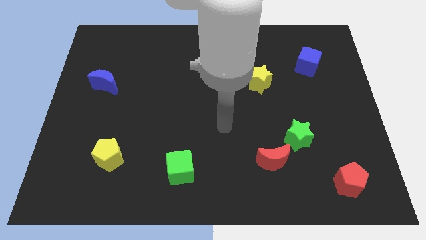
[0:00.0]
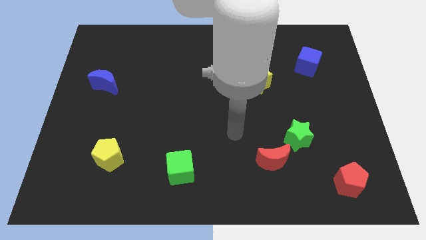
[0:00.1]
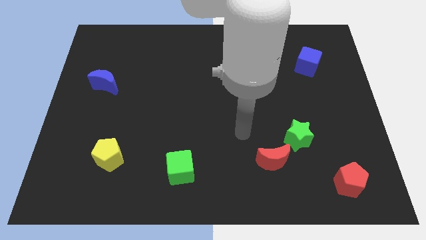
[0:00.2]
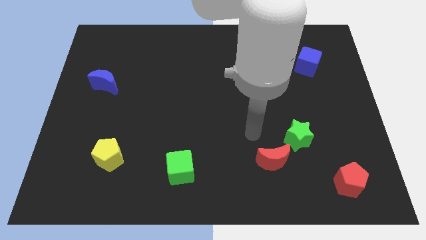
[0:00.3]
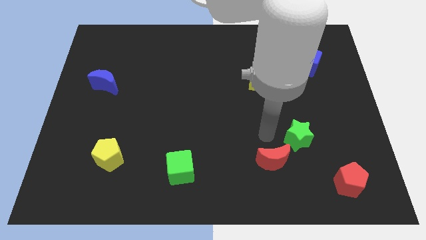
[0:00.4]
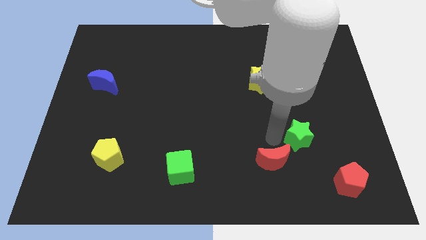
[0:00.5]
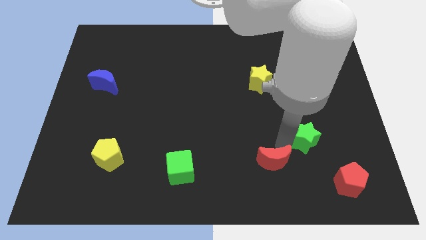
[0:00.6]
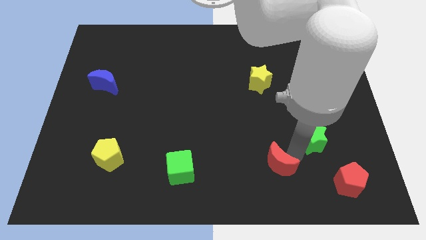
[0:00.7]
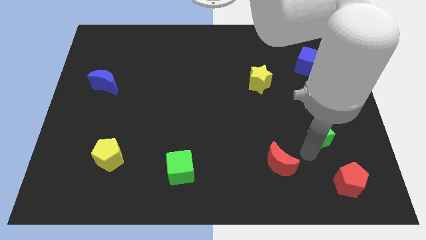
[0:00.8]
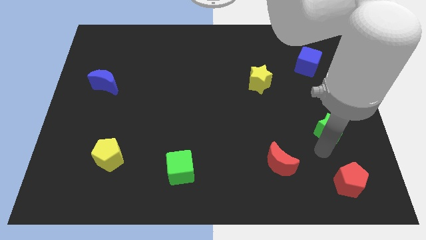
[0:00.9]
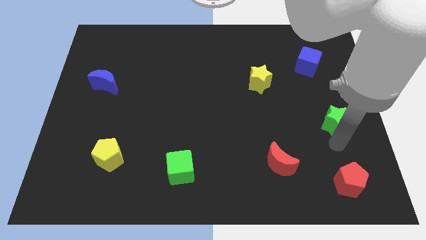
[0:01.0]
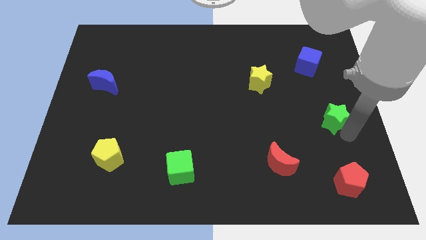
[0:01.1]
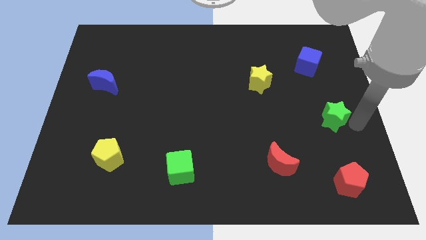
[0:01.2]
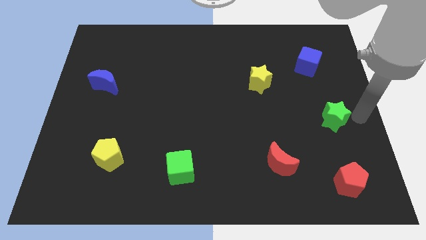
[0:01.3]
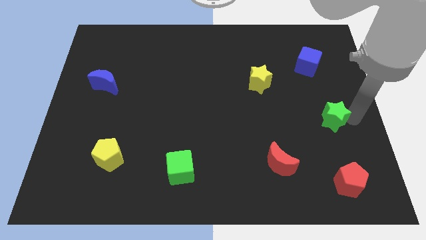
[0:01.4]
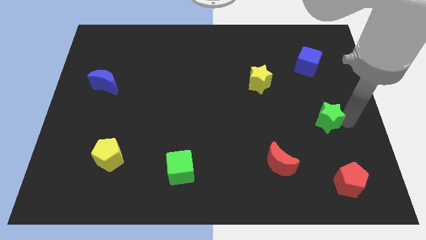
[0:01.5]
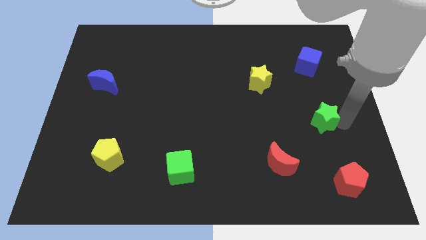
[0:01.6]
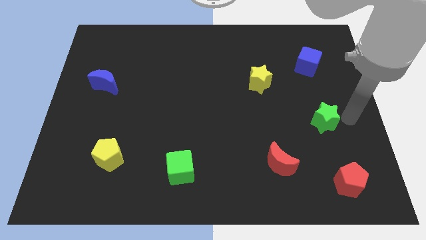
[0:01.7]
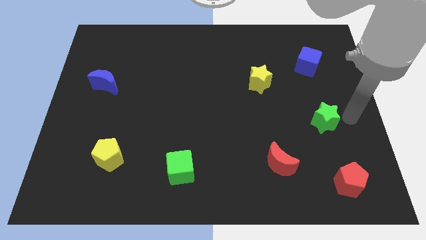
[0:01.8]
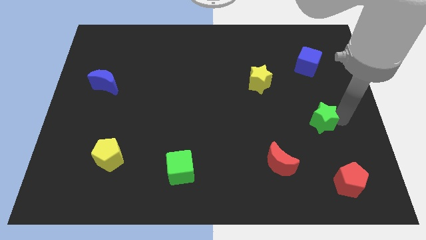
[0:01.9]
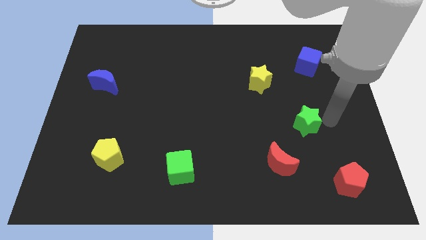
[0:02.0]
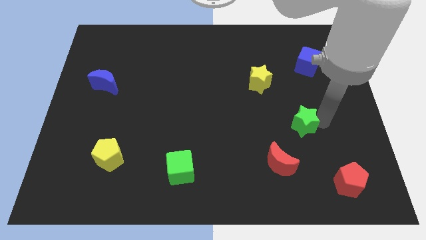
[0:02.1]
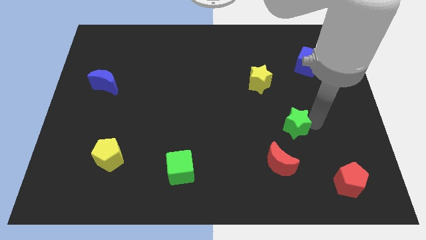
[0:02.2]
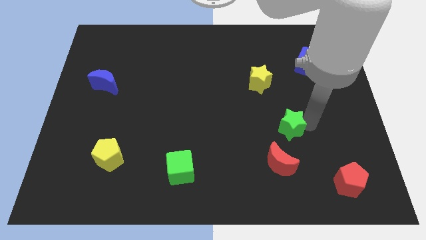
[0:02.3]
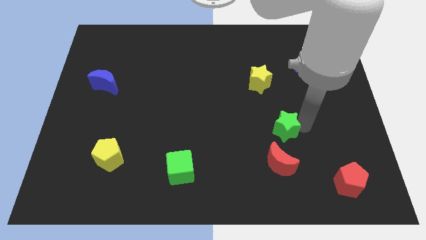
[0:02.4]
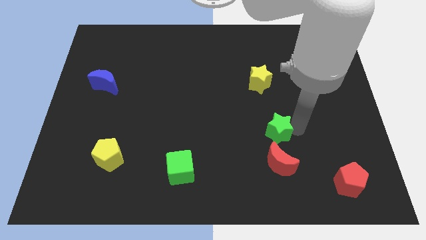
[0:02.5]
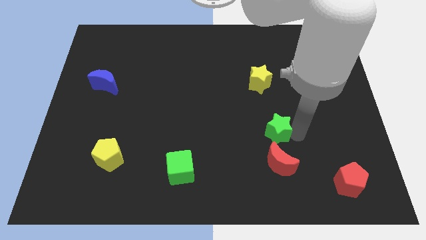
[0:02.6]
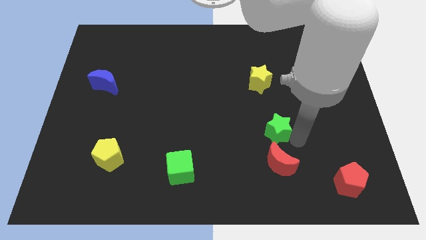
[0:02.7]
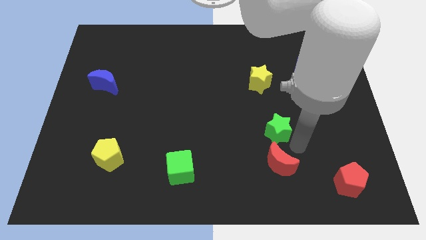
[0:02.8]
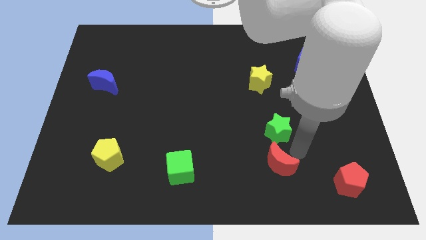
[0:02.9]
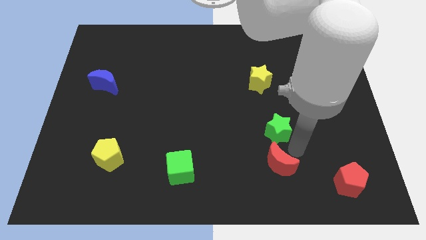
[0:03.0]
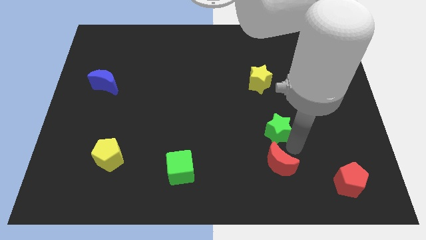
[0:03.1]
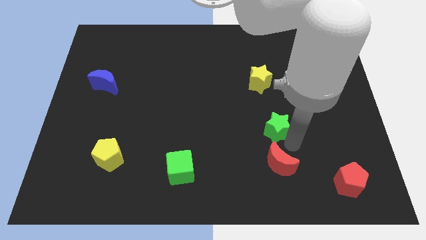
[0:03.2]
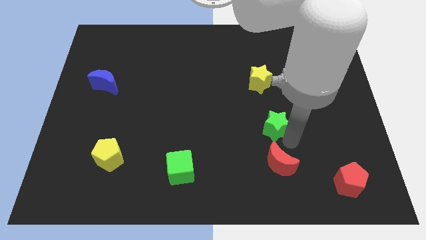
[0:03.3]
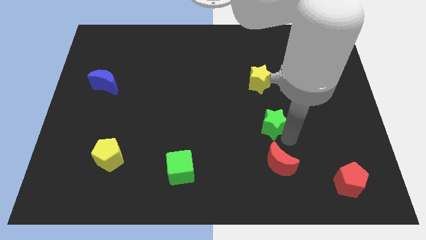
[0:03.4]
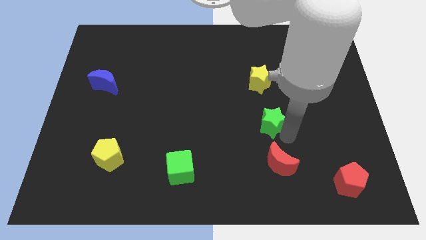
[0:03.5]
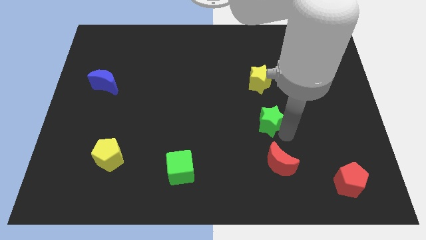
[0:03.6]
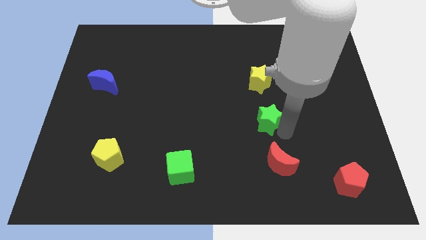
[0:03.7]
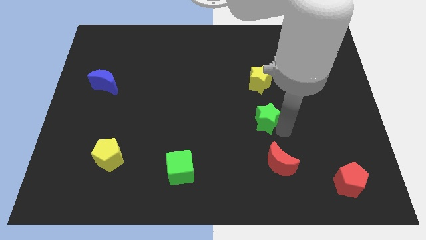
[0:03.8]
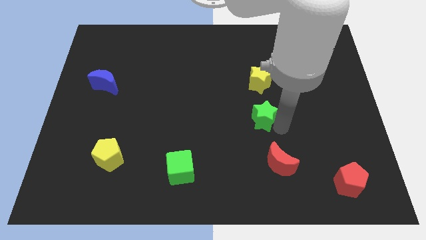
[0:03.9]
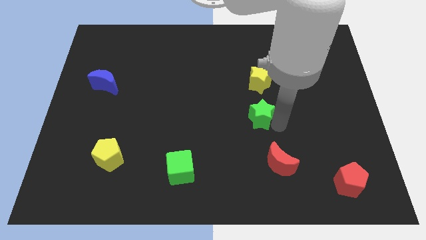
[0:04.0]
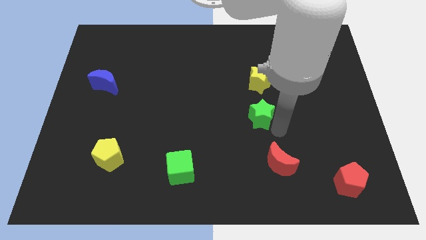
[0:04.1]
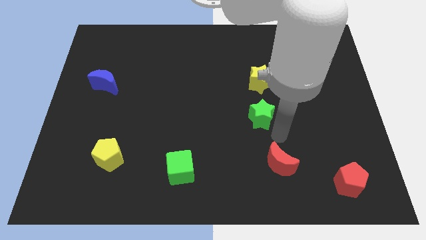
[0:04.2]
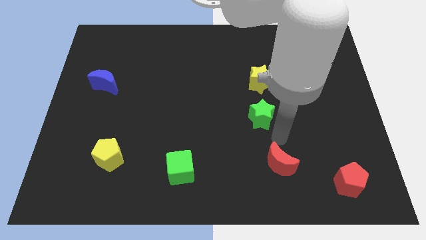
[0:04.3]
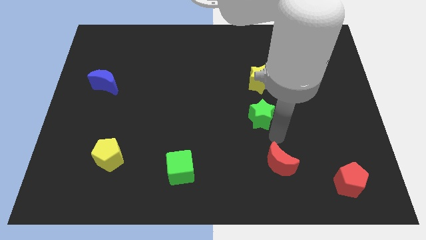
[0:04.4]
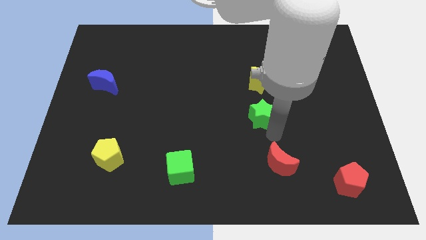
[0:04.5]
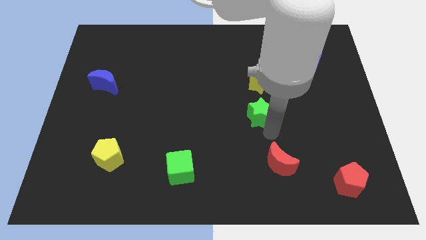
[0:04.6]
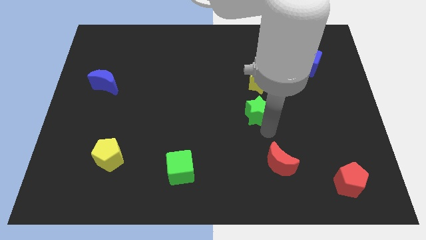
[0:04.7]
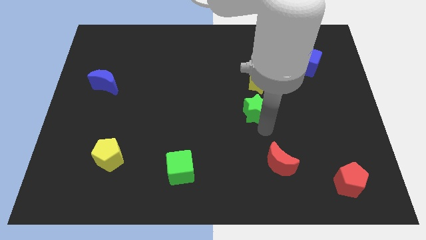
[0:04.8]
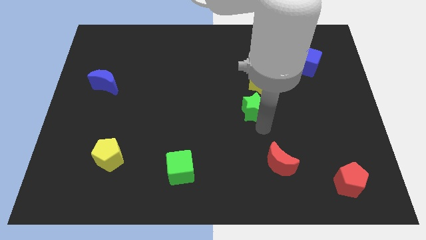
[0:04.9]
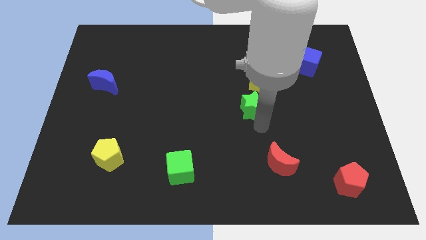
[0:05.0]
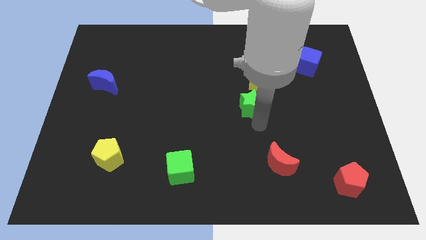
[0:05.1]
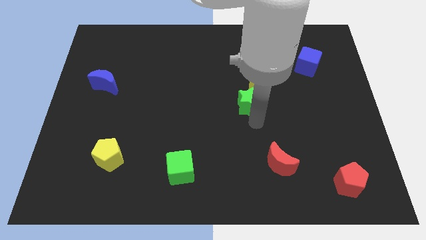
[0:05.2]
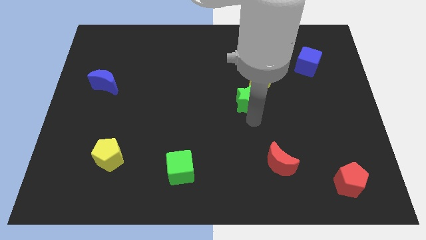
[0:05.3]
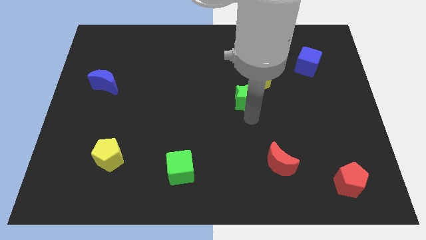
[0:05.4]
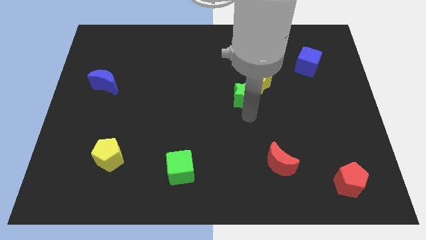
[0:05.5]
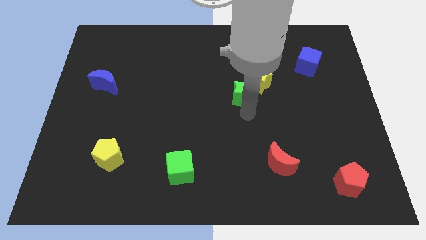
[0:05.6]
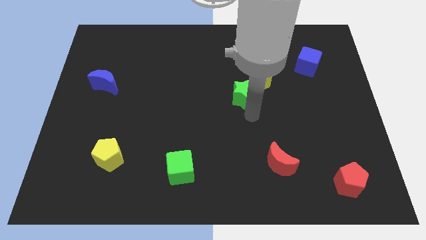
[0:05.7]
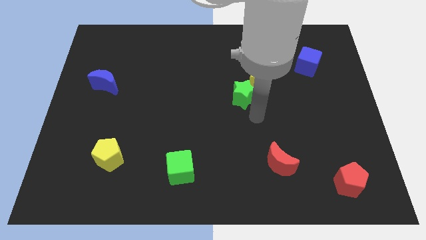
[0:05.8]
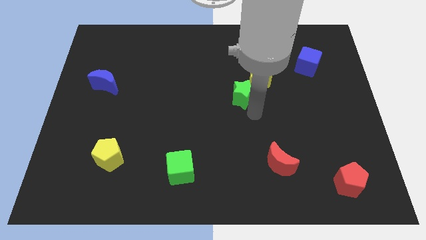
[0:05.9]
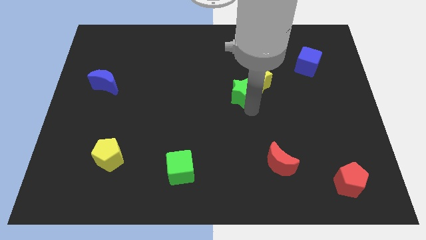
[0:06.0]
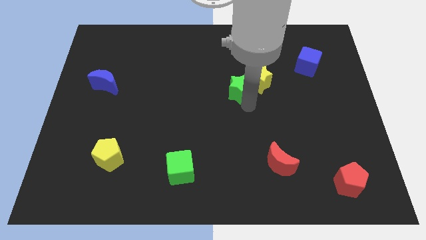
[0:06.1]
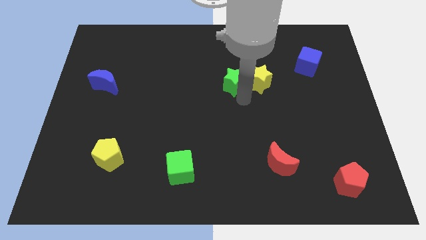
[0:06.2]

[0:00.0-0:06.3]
move the green star diagonally up and to the left

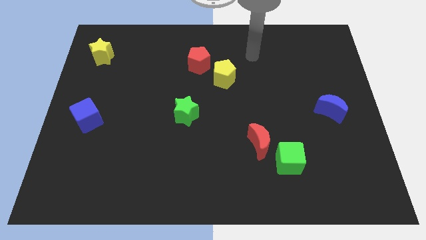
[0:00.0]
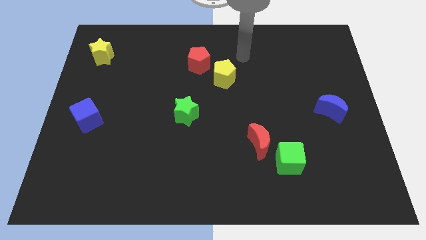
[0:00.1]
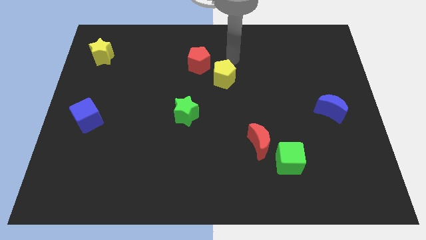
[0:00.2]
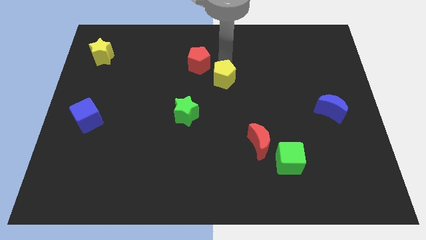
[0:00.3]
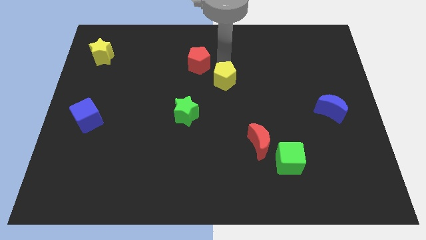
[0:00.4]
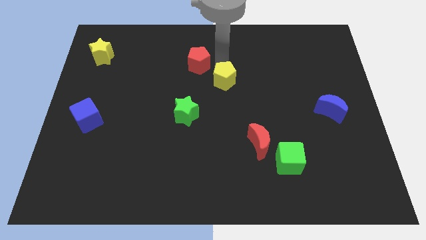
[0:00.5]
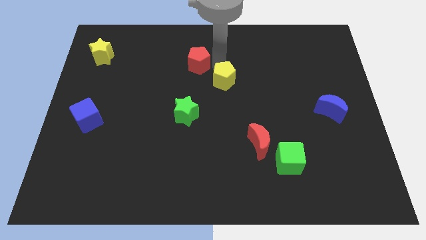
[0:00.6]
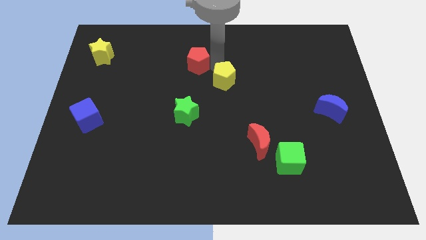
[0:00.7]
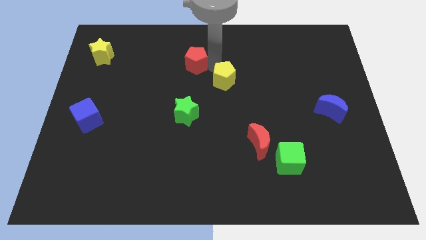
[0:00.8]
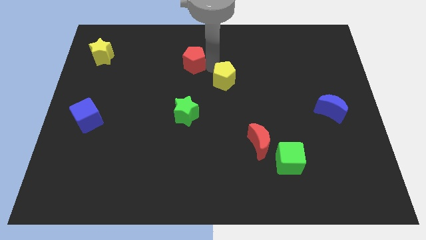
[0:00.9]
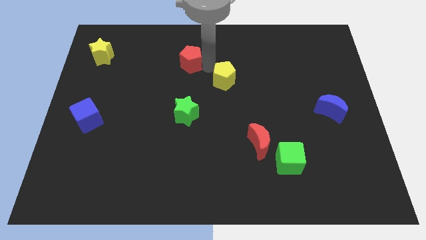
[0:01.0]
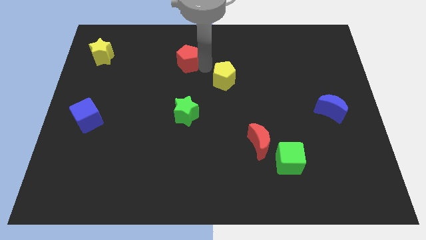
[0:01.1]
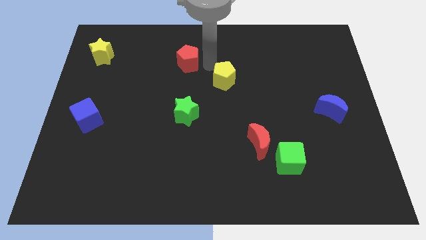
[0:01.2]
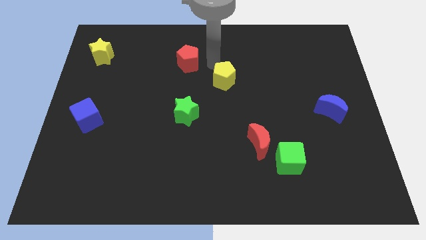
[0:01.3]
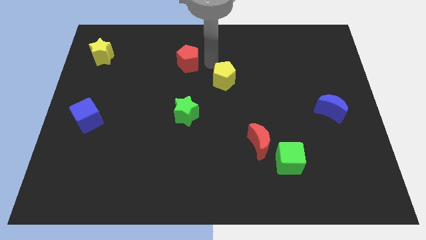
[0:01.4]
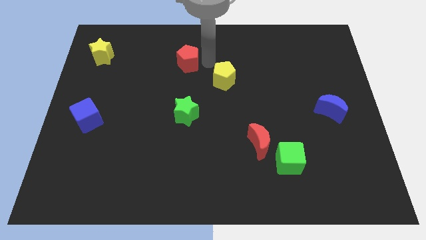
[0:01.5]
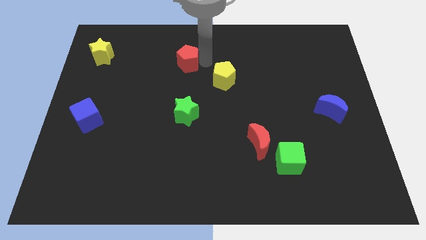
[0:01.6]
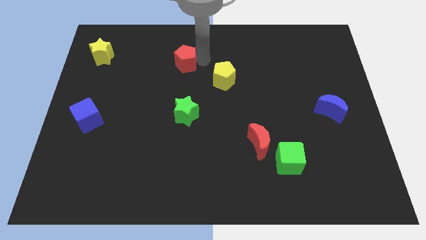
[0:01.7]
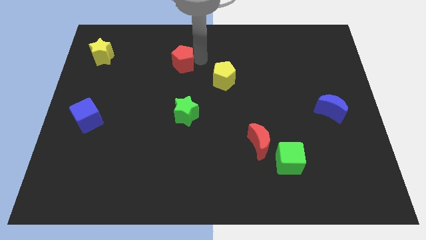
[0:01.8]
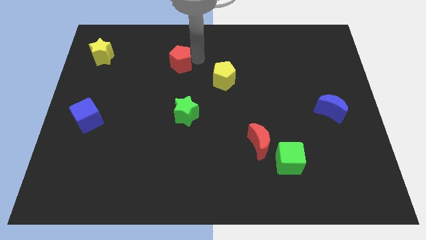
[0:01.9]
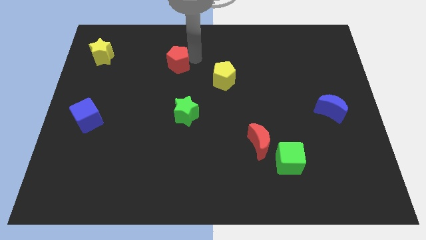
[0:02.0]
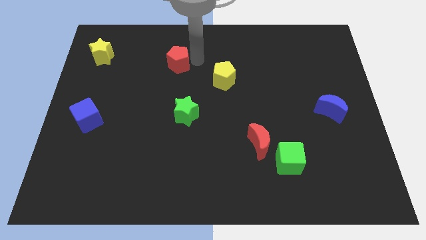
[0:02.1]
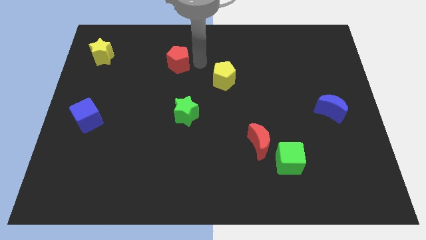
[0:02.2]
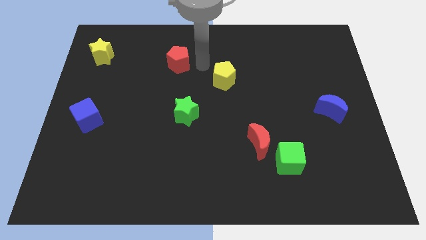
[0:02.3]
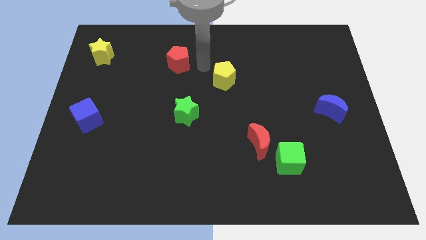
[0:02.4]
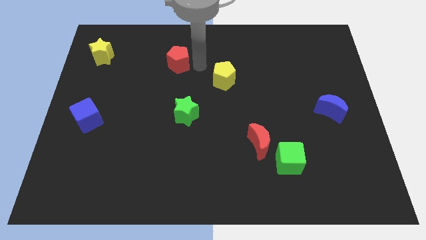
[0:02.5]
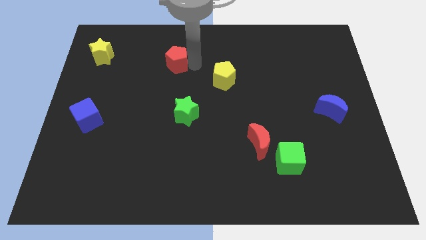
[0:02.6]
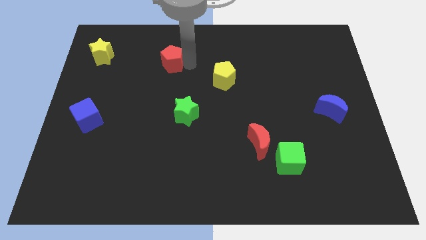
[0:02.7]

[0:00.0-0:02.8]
slightly slide the red pentagon left
